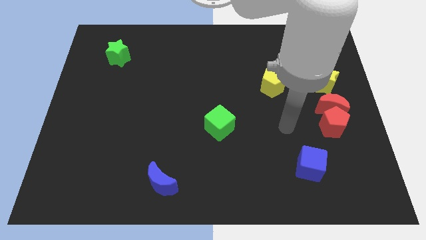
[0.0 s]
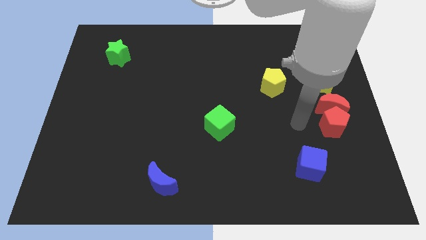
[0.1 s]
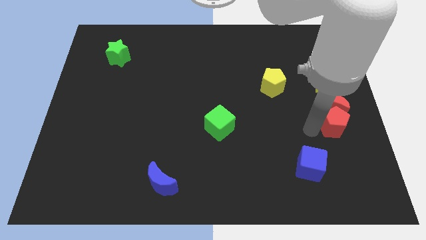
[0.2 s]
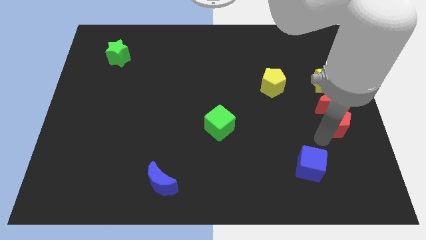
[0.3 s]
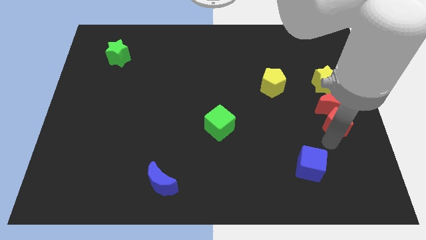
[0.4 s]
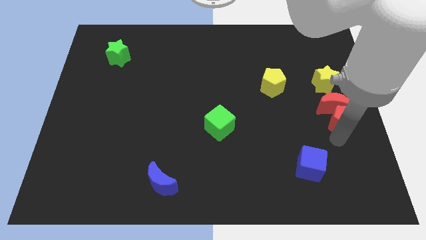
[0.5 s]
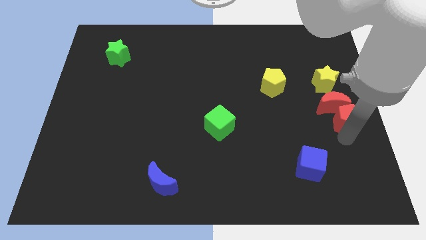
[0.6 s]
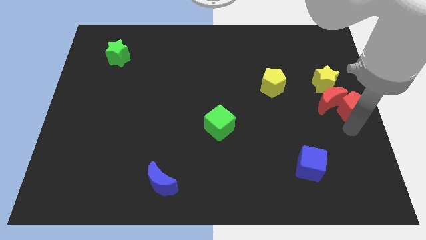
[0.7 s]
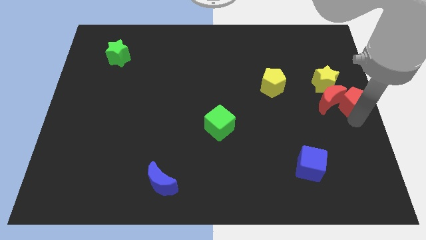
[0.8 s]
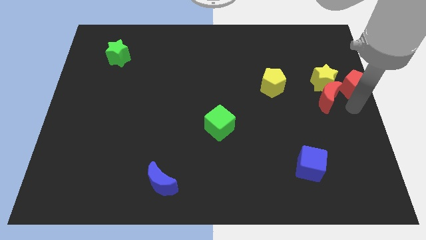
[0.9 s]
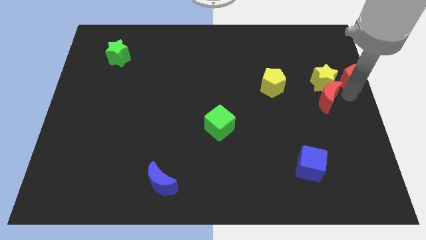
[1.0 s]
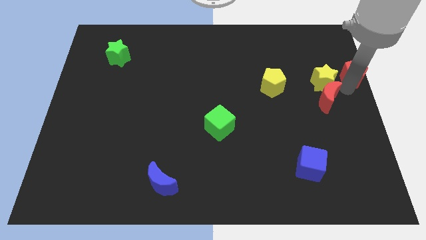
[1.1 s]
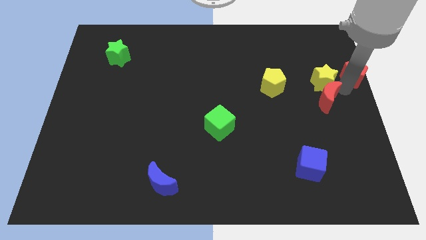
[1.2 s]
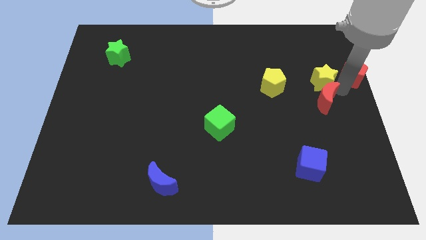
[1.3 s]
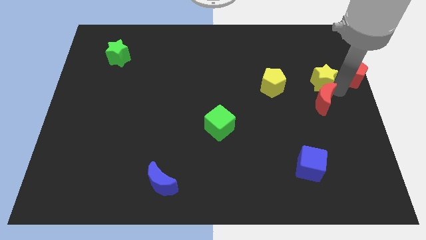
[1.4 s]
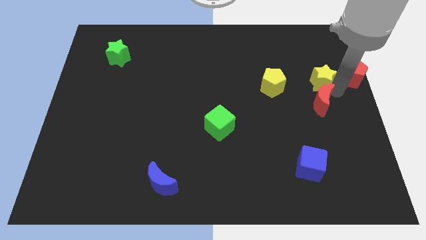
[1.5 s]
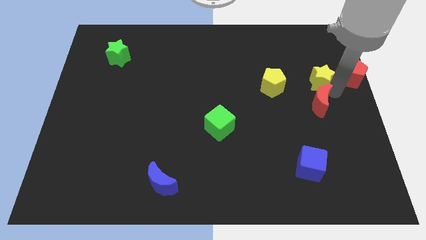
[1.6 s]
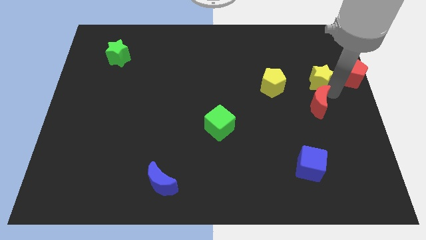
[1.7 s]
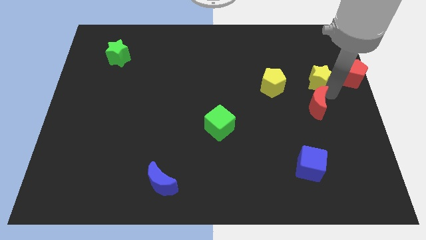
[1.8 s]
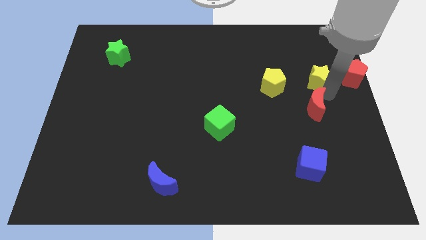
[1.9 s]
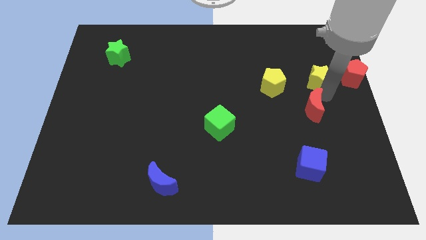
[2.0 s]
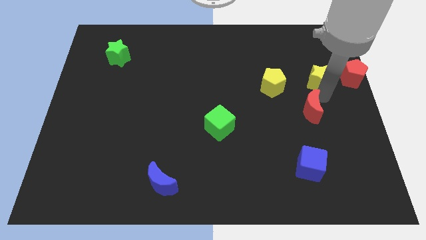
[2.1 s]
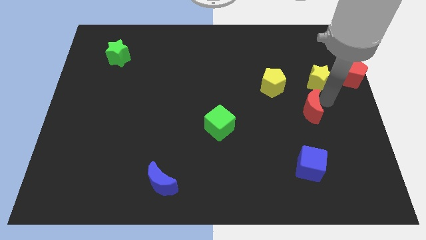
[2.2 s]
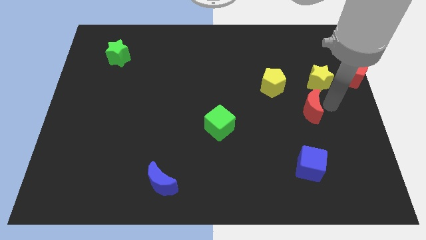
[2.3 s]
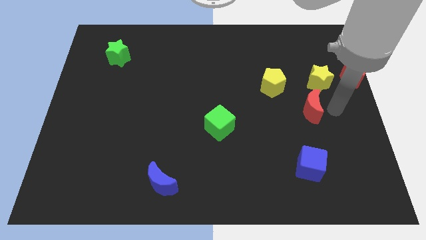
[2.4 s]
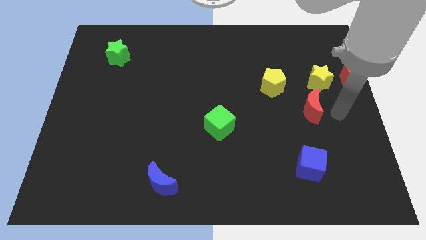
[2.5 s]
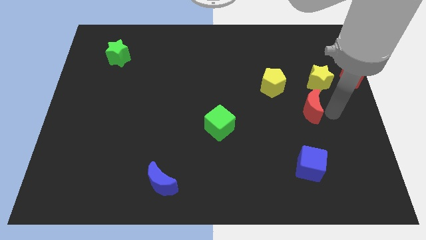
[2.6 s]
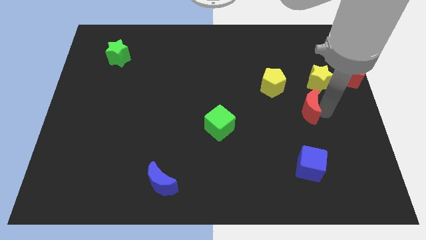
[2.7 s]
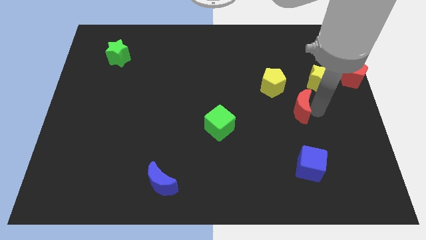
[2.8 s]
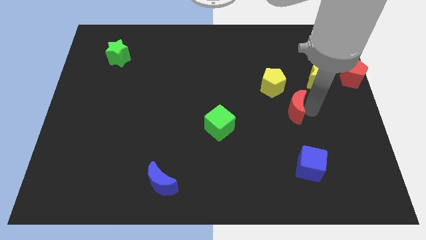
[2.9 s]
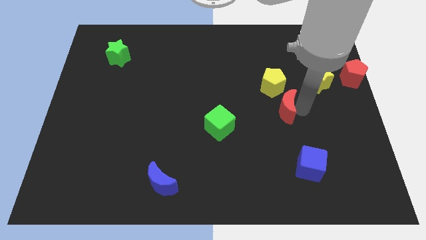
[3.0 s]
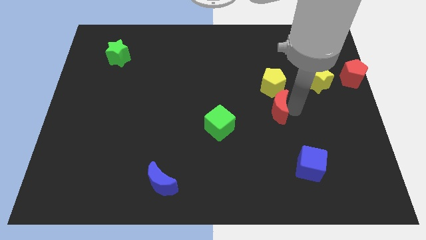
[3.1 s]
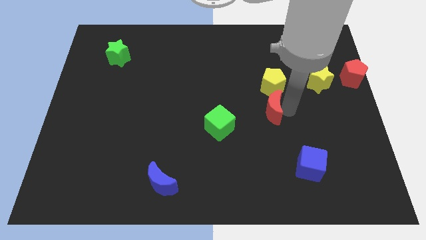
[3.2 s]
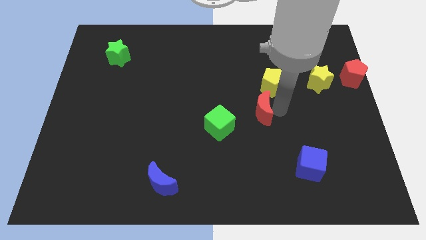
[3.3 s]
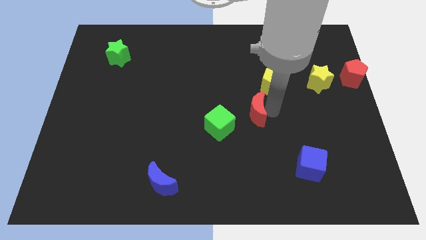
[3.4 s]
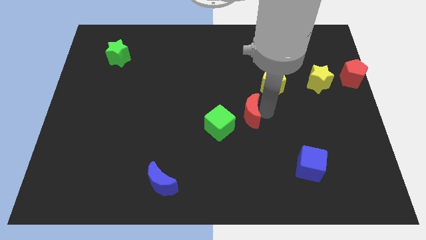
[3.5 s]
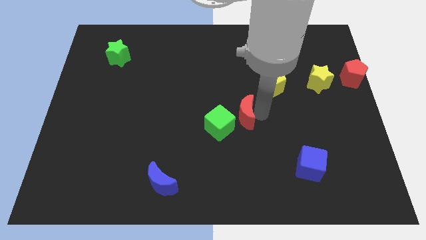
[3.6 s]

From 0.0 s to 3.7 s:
move the red moon left

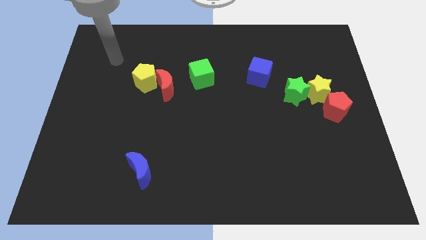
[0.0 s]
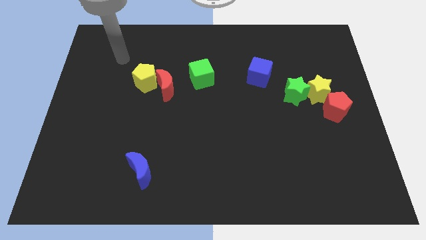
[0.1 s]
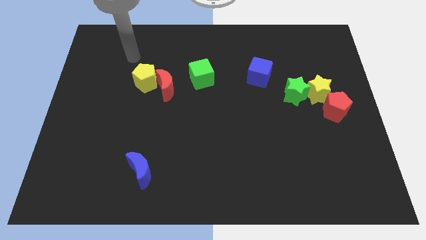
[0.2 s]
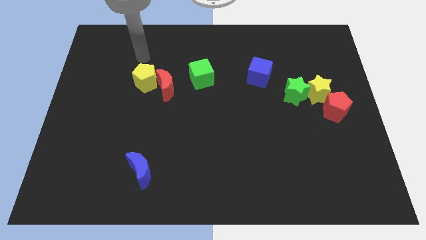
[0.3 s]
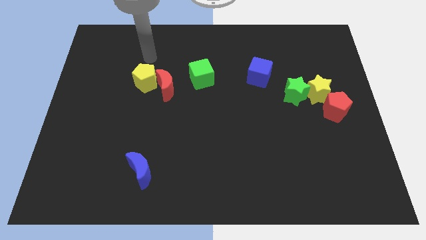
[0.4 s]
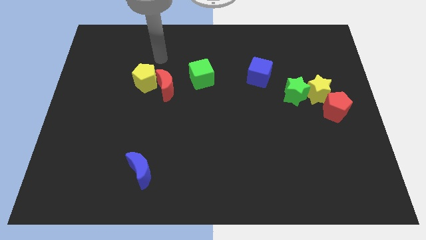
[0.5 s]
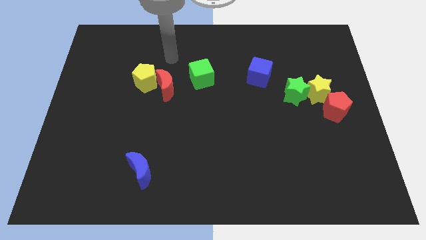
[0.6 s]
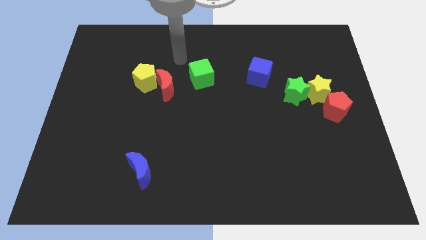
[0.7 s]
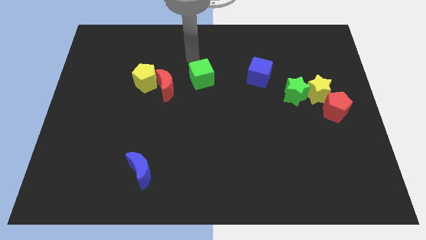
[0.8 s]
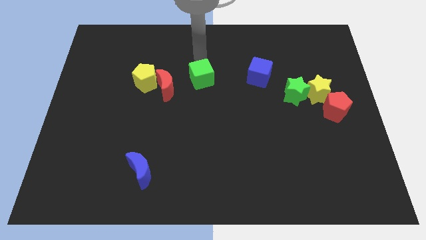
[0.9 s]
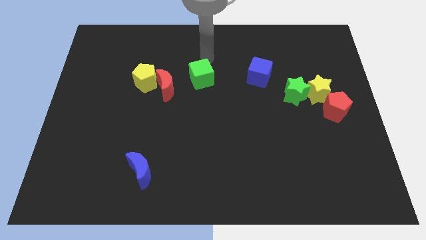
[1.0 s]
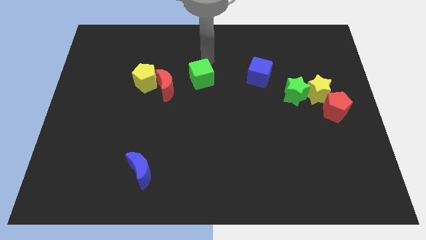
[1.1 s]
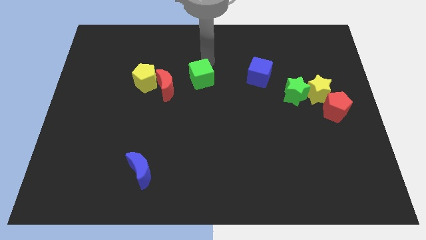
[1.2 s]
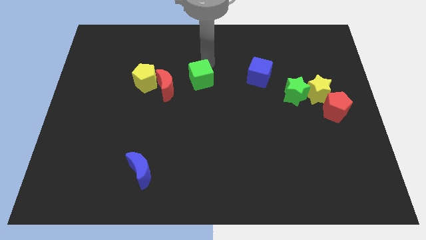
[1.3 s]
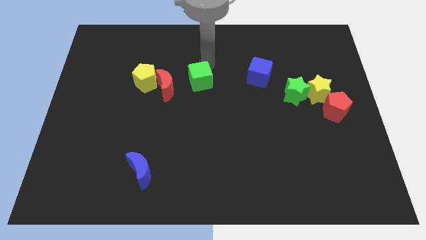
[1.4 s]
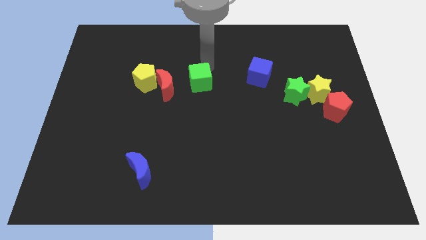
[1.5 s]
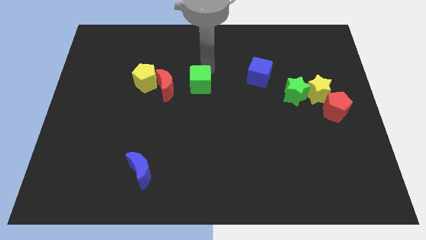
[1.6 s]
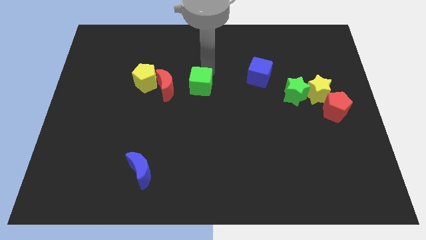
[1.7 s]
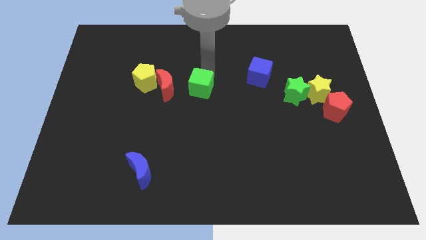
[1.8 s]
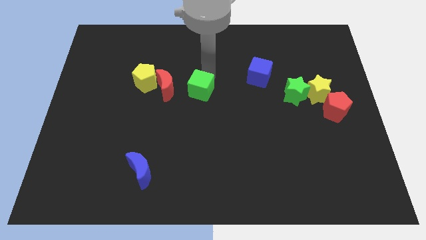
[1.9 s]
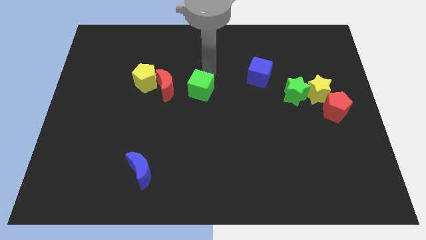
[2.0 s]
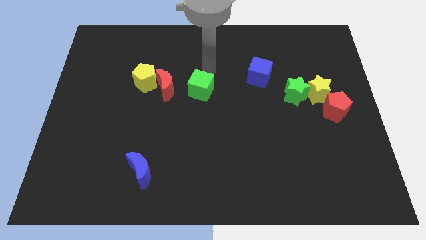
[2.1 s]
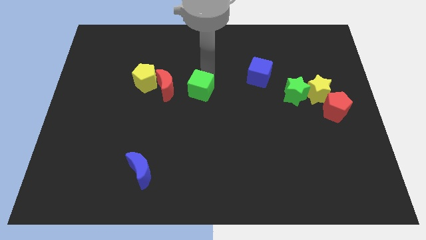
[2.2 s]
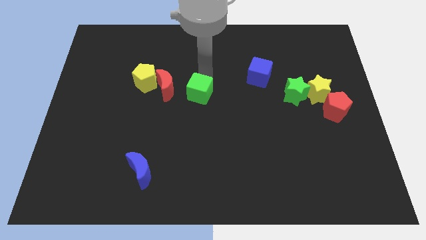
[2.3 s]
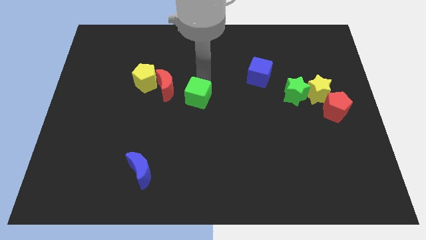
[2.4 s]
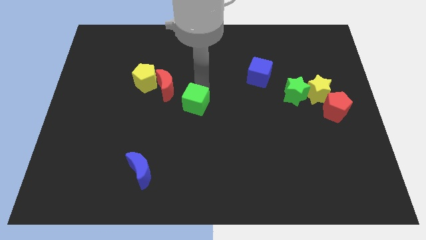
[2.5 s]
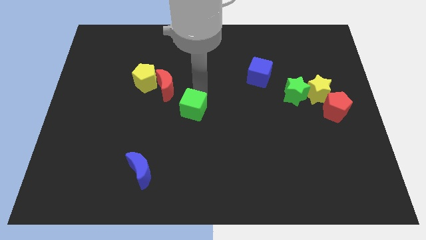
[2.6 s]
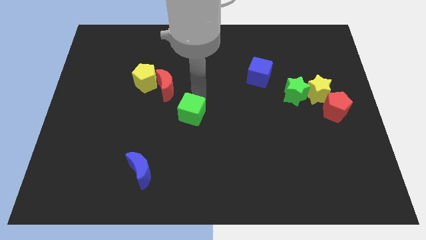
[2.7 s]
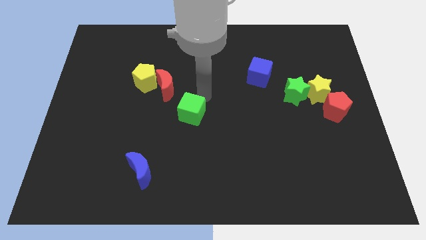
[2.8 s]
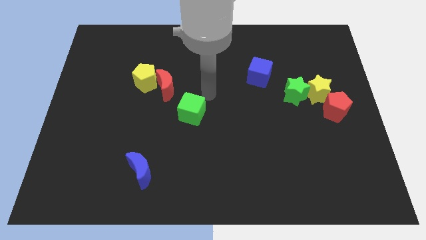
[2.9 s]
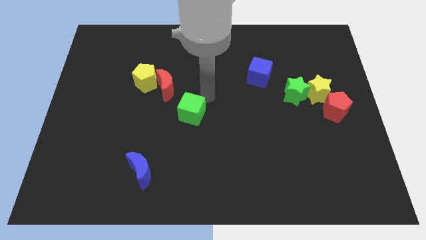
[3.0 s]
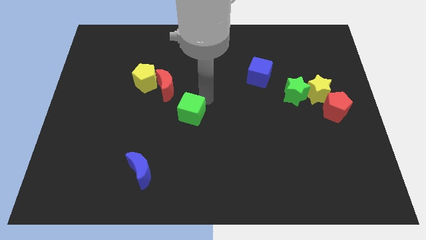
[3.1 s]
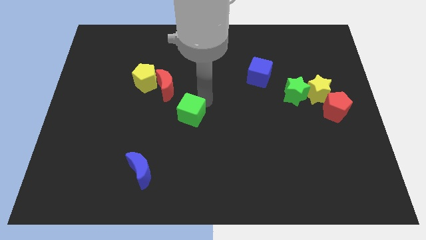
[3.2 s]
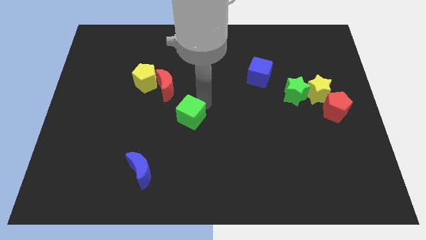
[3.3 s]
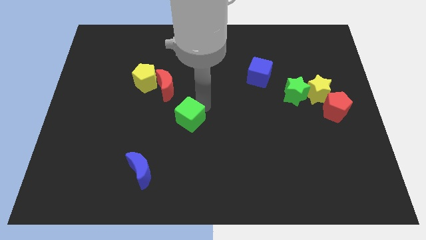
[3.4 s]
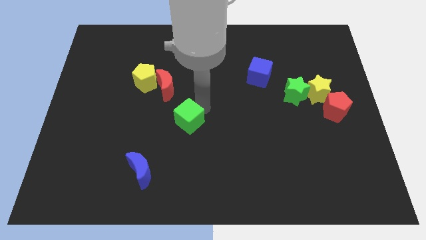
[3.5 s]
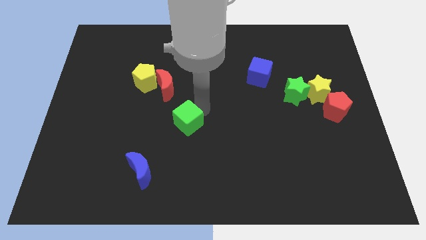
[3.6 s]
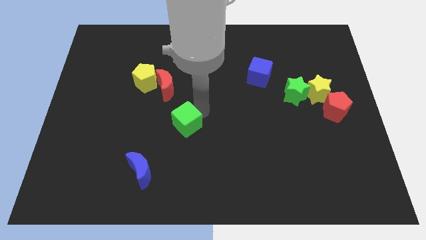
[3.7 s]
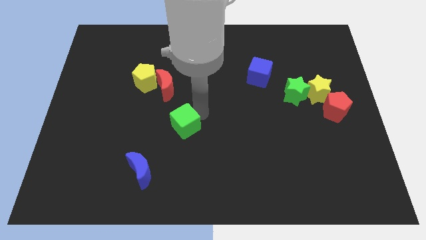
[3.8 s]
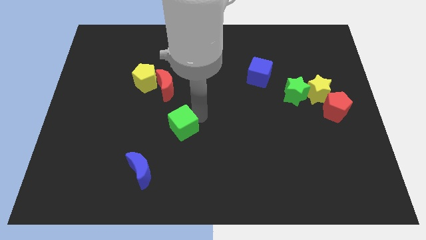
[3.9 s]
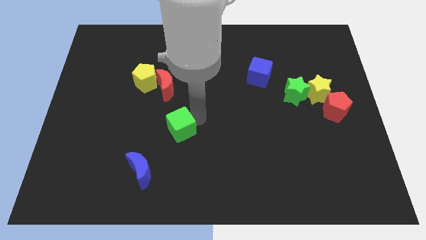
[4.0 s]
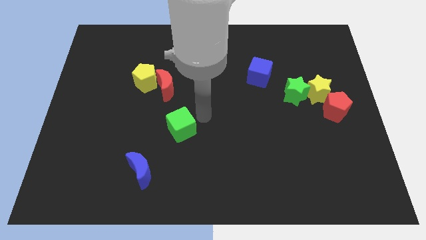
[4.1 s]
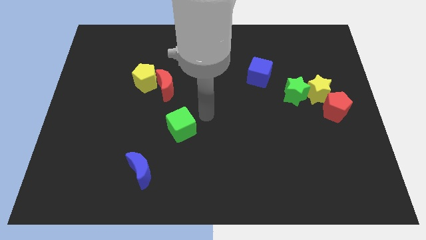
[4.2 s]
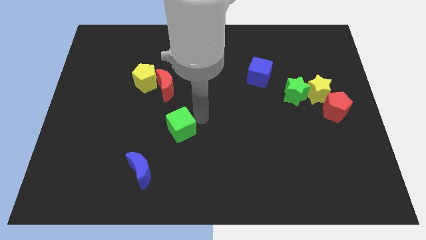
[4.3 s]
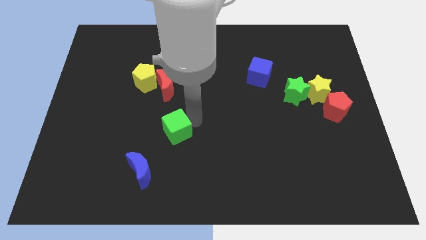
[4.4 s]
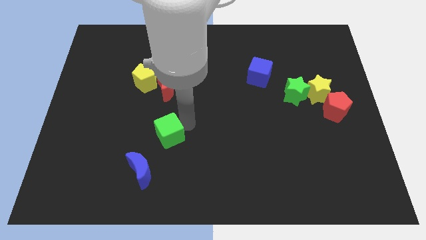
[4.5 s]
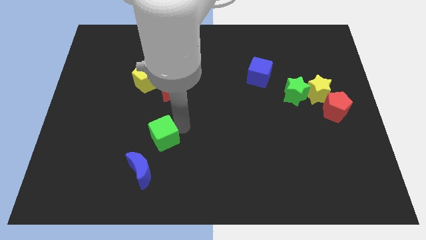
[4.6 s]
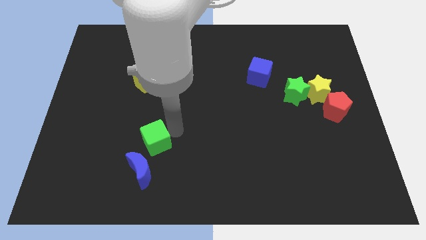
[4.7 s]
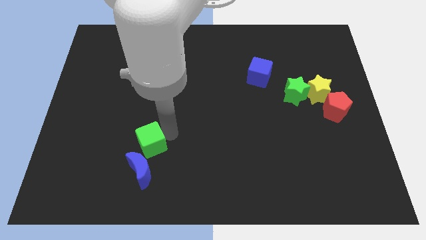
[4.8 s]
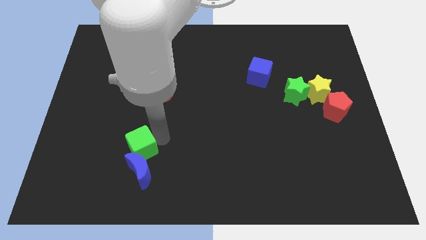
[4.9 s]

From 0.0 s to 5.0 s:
push the green cube downwards and to the left diagonally
